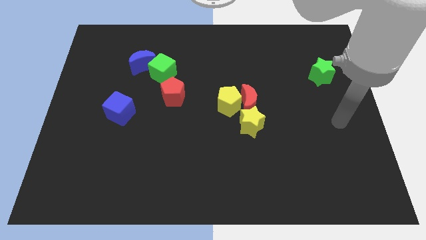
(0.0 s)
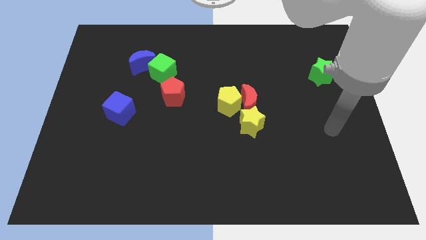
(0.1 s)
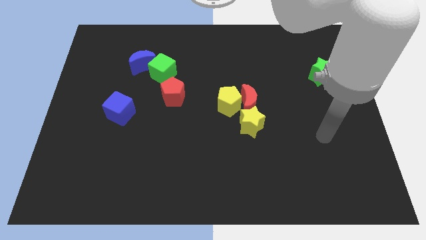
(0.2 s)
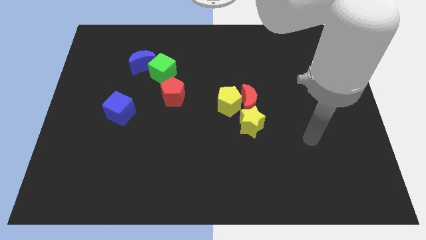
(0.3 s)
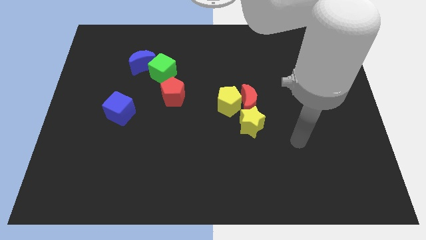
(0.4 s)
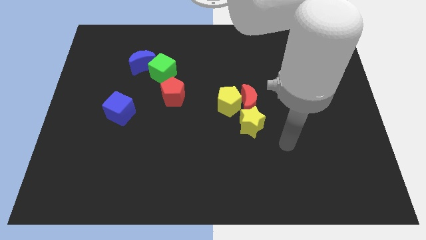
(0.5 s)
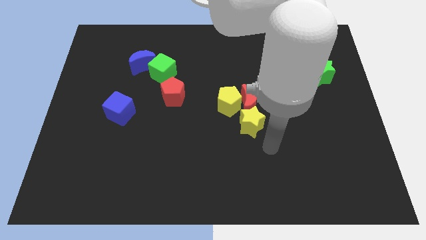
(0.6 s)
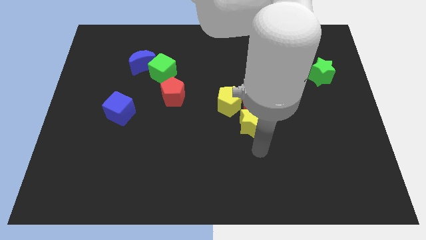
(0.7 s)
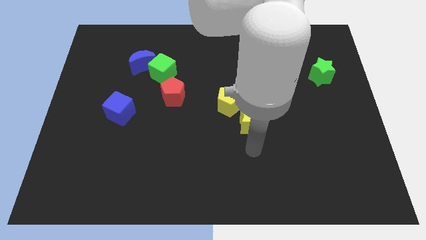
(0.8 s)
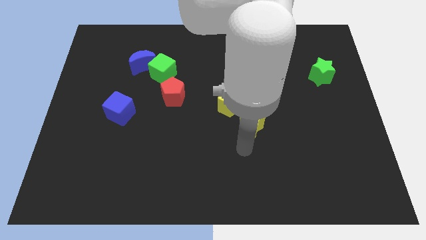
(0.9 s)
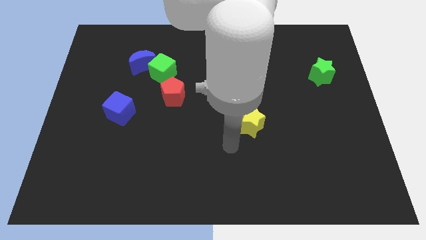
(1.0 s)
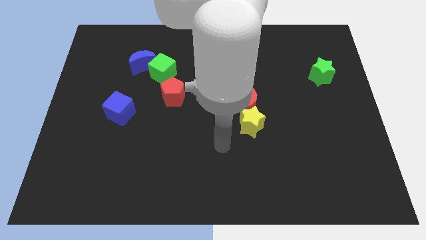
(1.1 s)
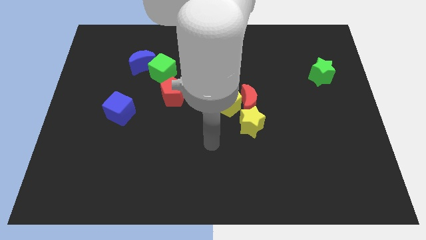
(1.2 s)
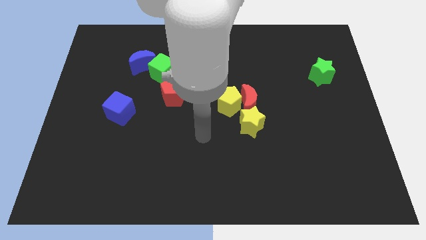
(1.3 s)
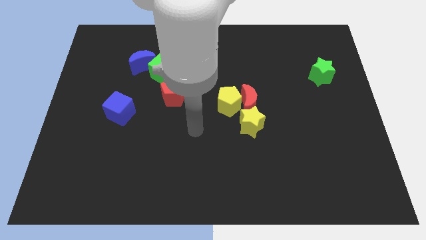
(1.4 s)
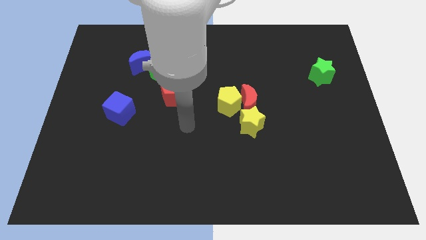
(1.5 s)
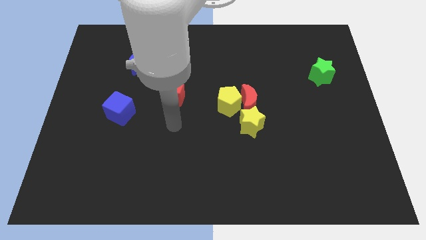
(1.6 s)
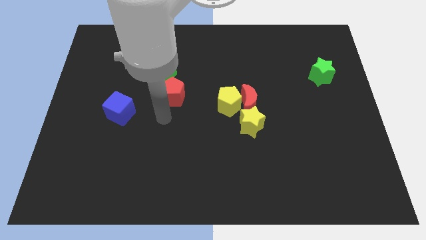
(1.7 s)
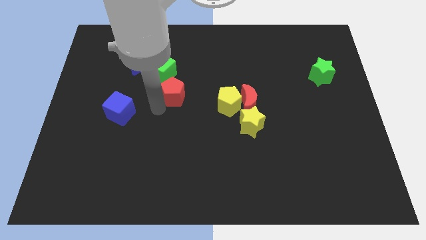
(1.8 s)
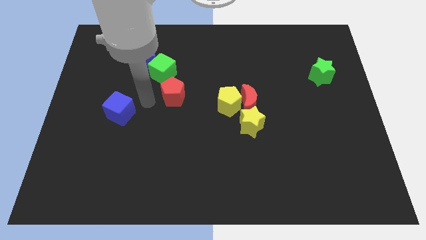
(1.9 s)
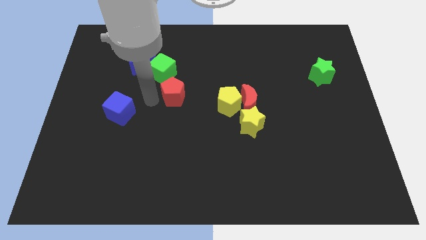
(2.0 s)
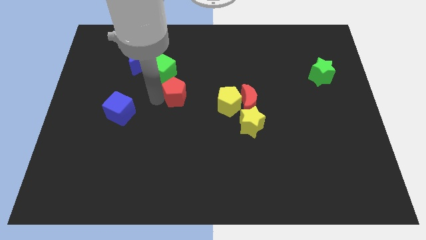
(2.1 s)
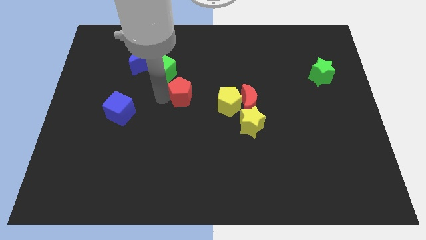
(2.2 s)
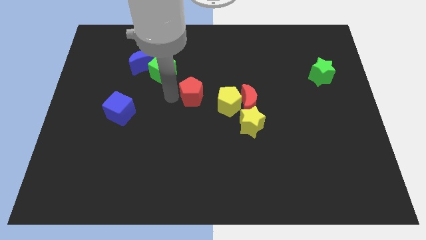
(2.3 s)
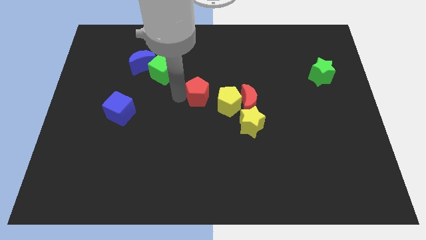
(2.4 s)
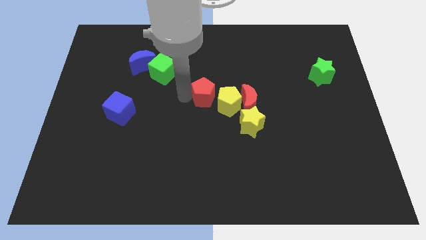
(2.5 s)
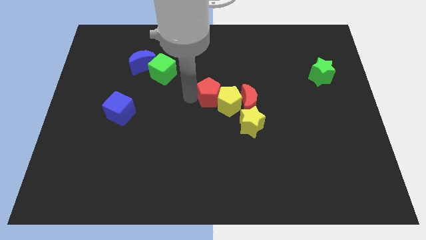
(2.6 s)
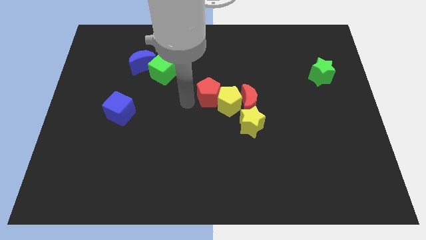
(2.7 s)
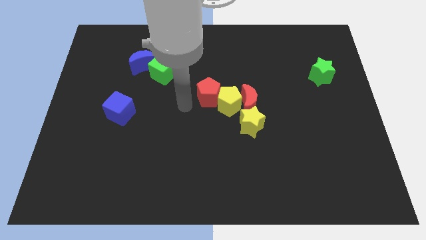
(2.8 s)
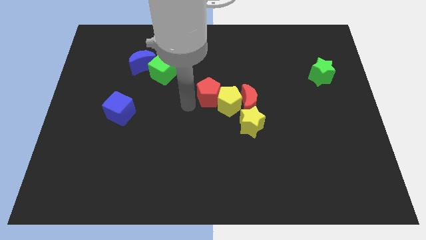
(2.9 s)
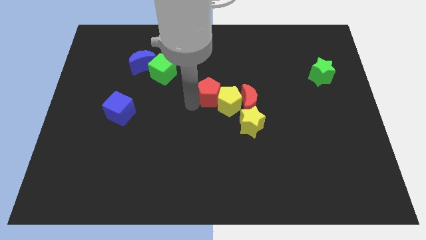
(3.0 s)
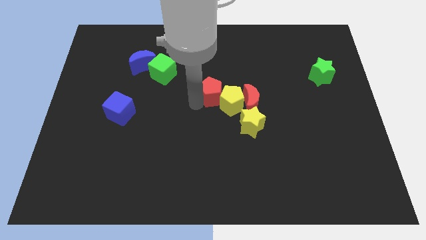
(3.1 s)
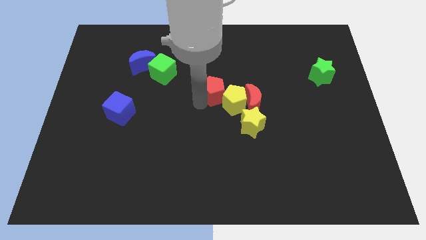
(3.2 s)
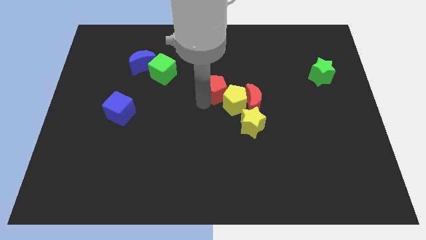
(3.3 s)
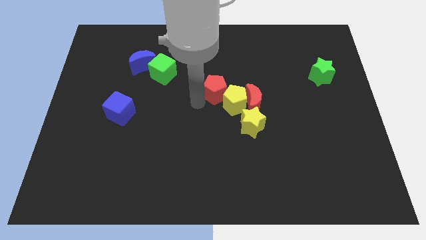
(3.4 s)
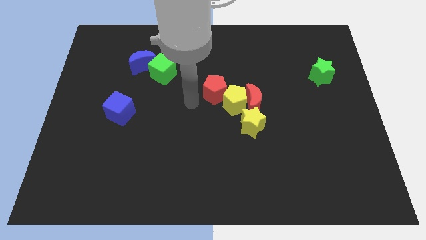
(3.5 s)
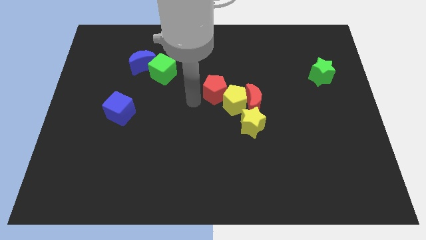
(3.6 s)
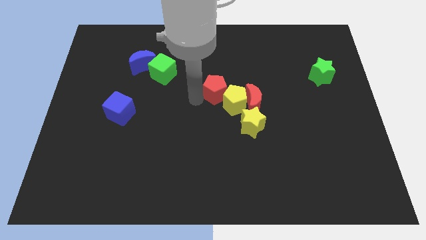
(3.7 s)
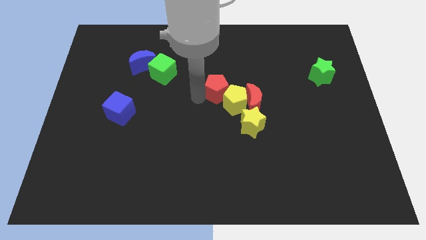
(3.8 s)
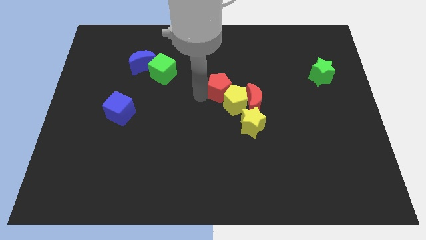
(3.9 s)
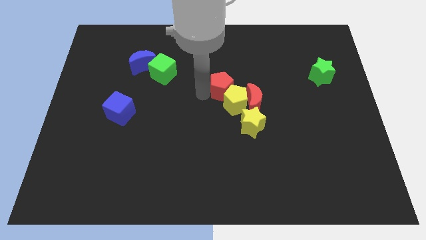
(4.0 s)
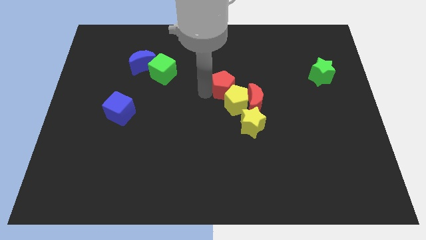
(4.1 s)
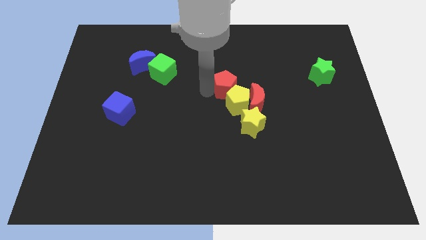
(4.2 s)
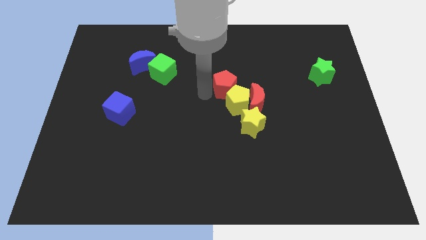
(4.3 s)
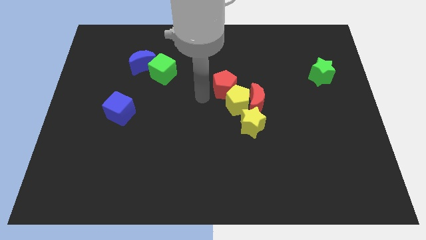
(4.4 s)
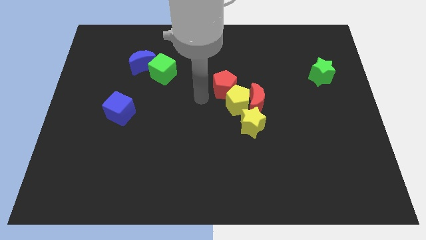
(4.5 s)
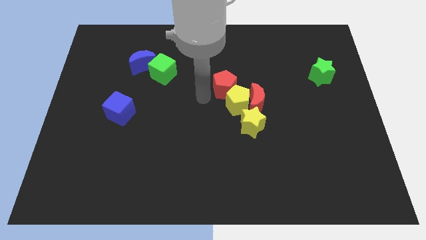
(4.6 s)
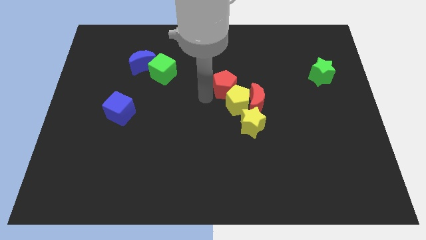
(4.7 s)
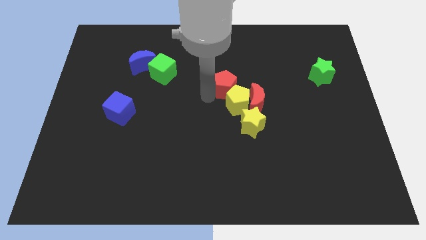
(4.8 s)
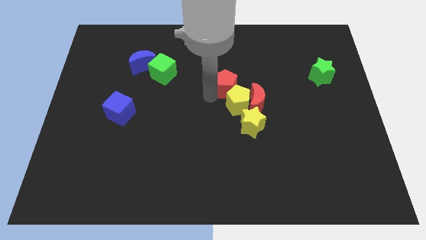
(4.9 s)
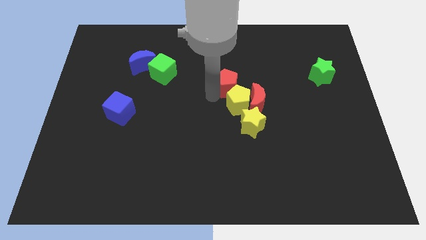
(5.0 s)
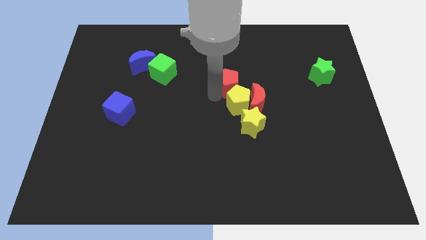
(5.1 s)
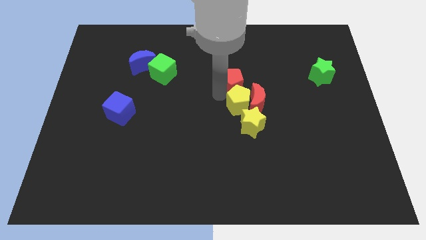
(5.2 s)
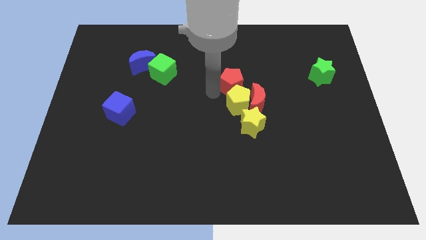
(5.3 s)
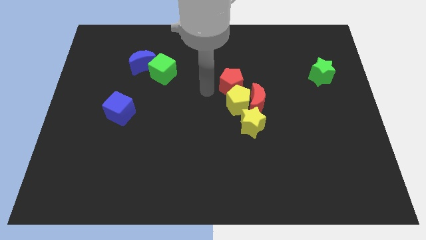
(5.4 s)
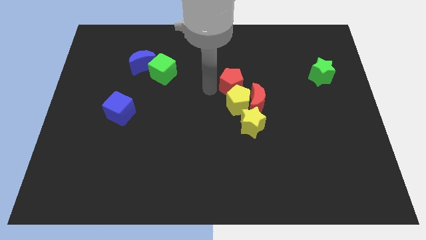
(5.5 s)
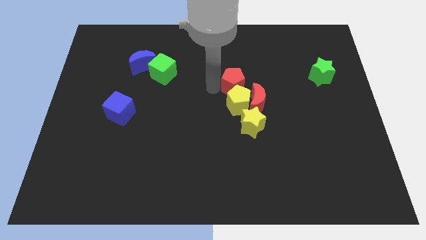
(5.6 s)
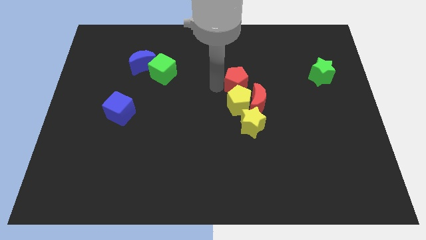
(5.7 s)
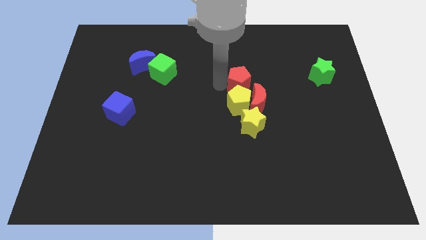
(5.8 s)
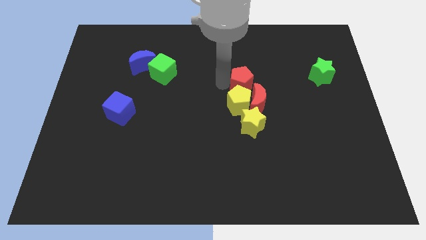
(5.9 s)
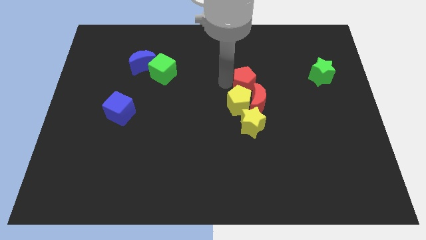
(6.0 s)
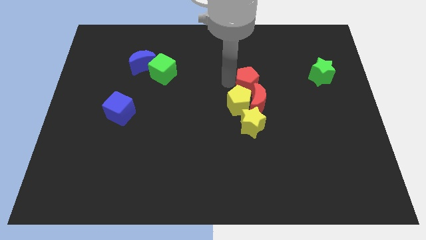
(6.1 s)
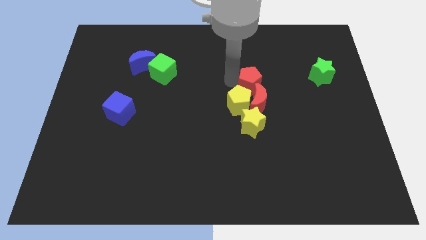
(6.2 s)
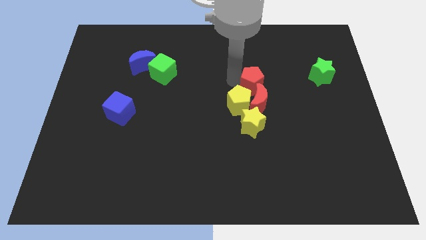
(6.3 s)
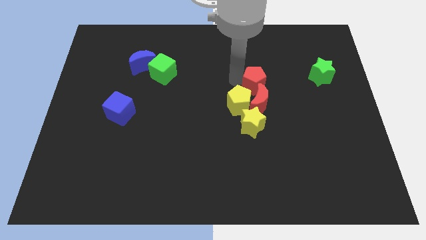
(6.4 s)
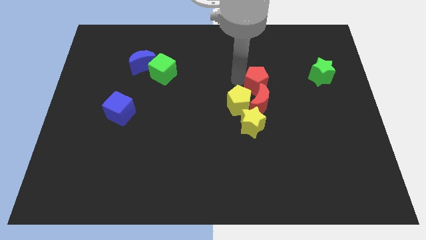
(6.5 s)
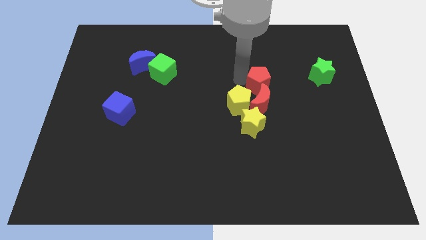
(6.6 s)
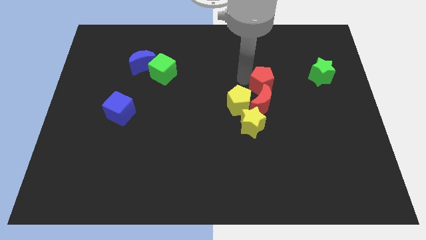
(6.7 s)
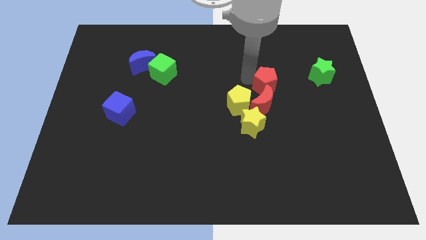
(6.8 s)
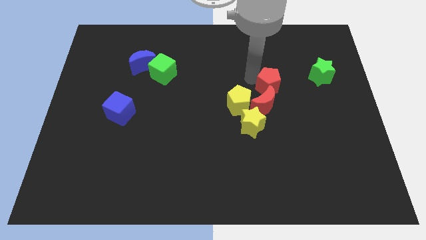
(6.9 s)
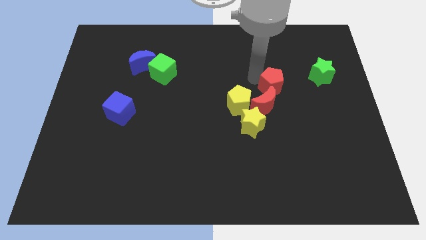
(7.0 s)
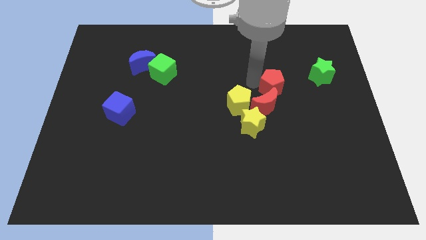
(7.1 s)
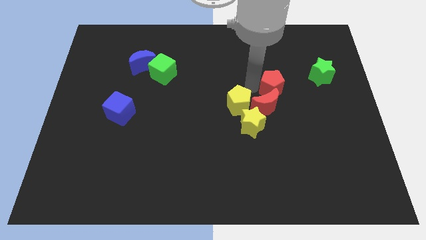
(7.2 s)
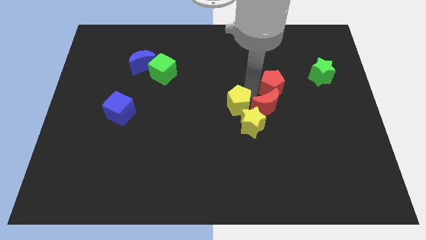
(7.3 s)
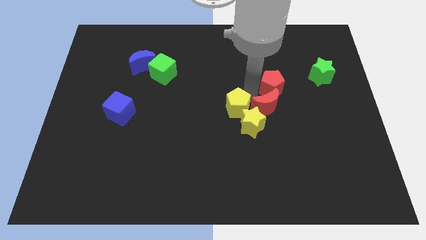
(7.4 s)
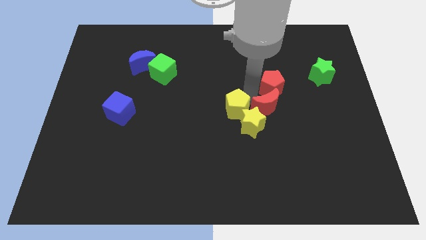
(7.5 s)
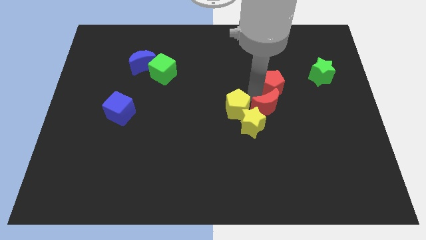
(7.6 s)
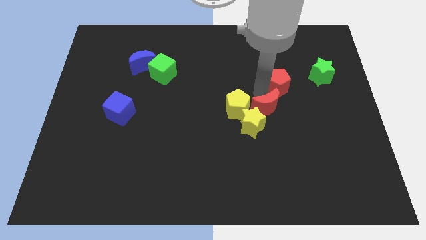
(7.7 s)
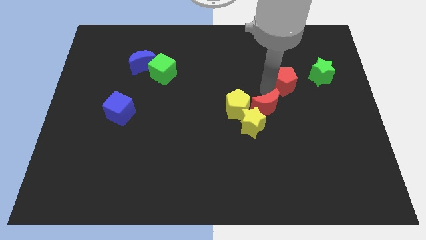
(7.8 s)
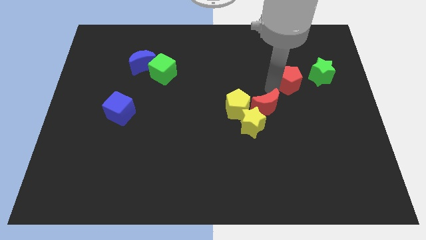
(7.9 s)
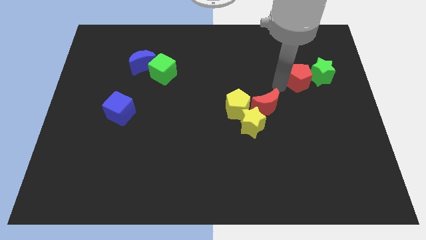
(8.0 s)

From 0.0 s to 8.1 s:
put the red pentagon close to the green star
